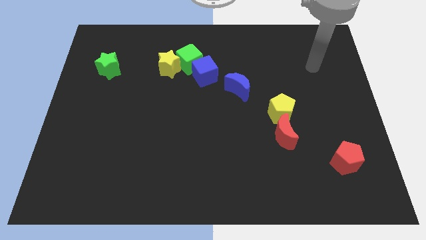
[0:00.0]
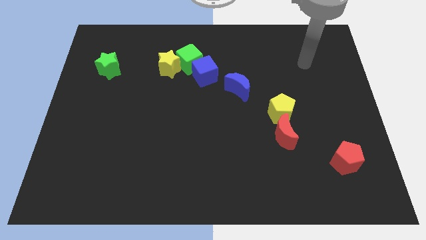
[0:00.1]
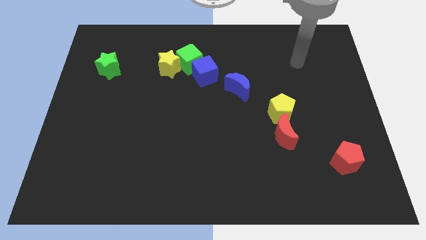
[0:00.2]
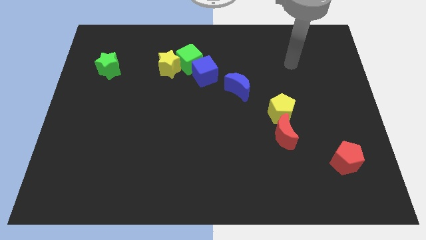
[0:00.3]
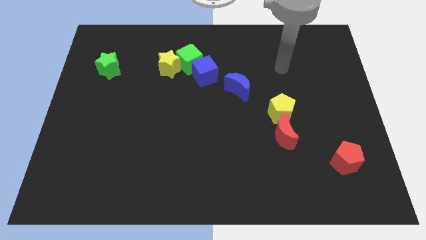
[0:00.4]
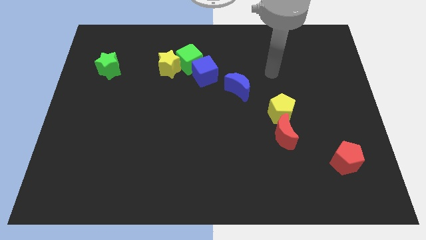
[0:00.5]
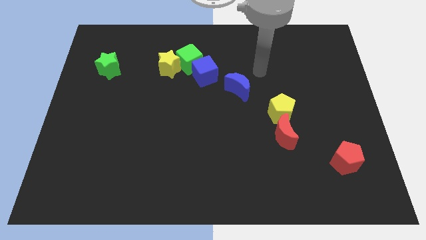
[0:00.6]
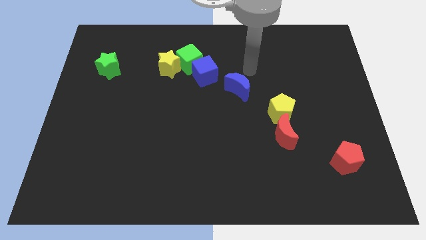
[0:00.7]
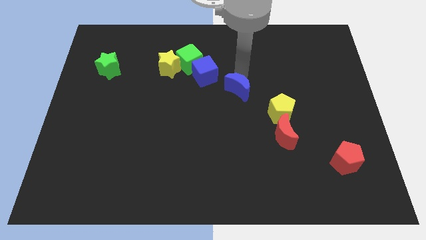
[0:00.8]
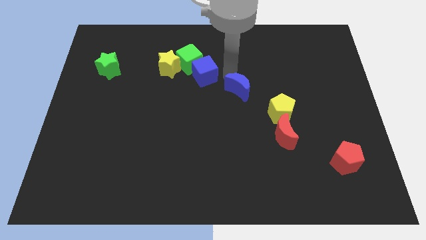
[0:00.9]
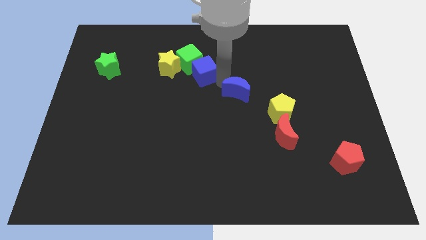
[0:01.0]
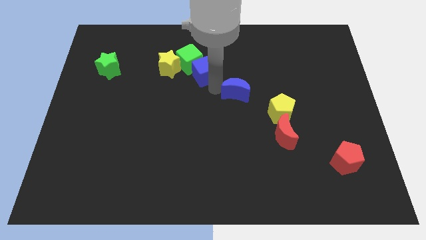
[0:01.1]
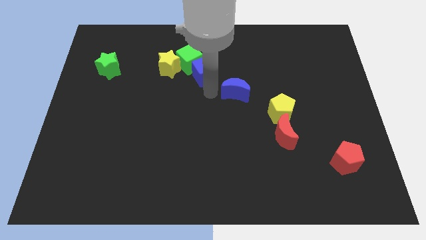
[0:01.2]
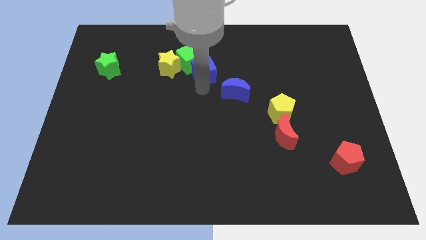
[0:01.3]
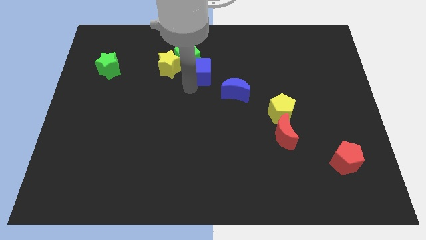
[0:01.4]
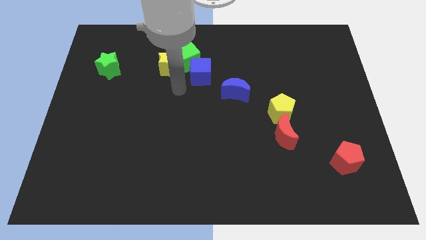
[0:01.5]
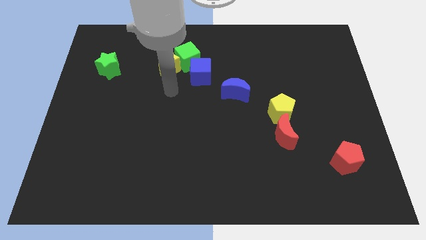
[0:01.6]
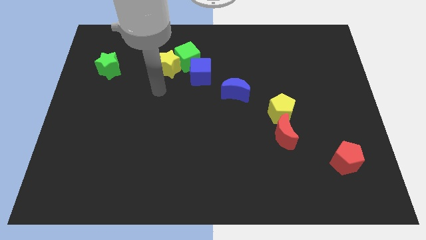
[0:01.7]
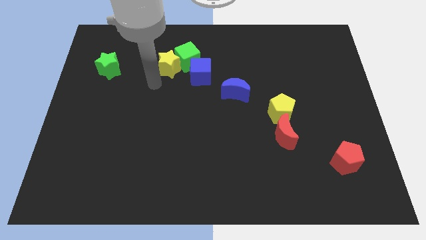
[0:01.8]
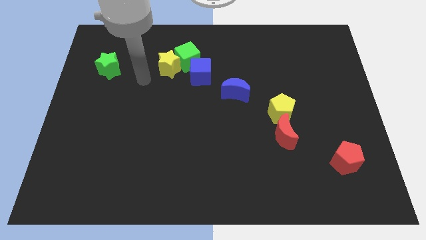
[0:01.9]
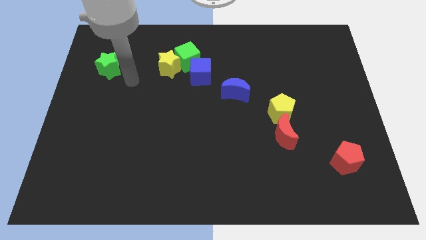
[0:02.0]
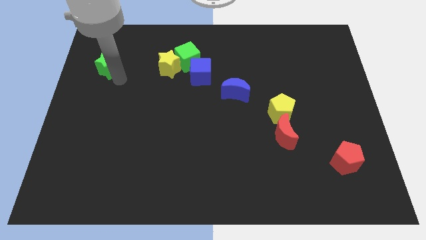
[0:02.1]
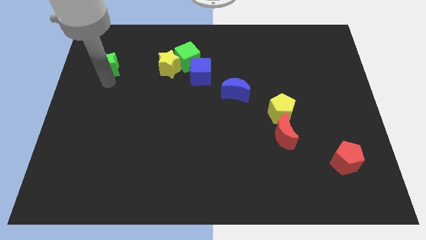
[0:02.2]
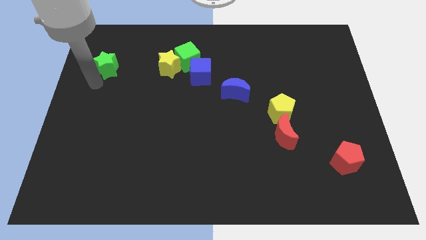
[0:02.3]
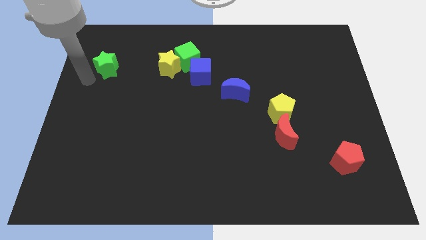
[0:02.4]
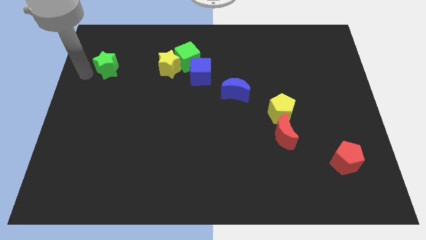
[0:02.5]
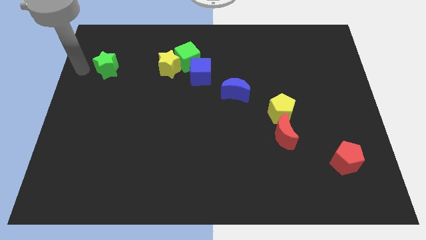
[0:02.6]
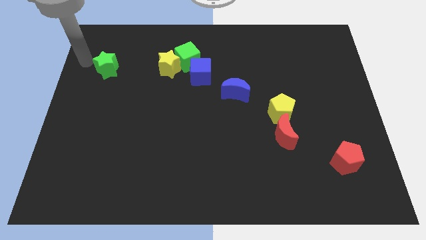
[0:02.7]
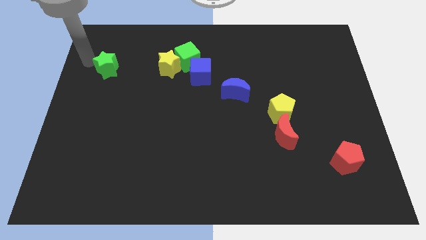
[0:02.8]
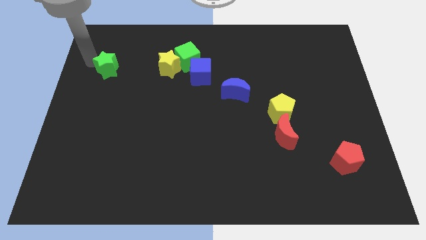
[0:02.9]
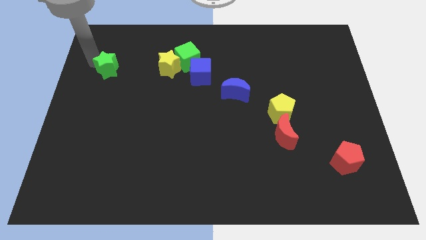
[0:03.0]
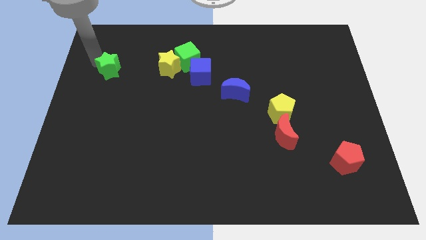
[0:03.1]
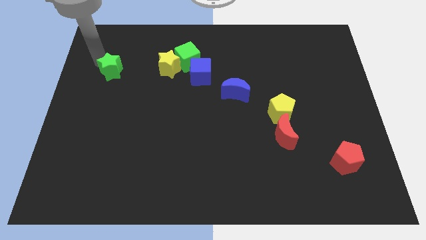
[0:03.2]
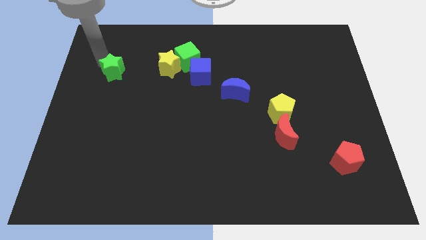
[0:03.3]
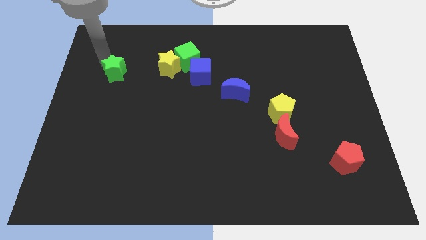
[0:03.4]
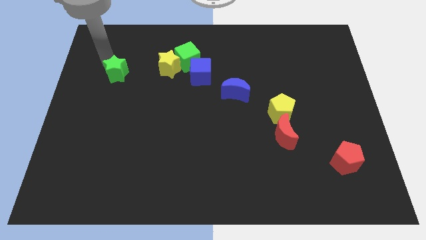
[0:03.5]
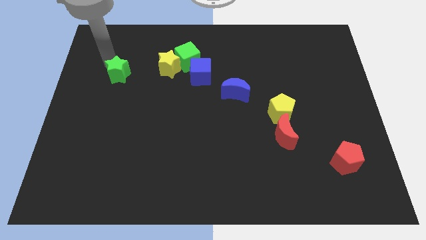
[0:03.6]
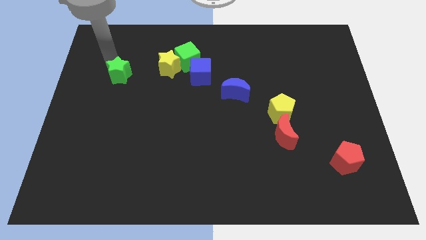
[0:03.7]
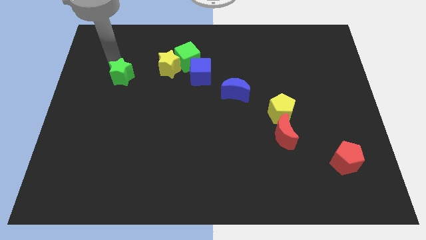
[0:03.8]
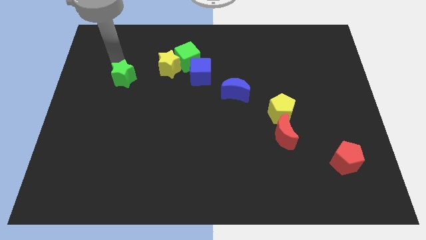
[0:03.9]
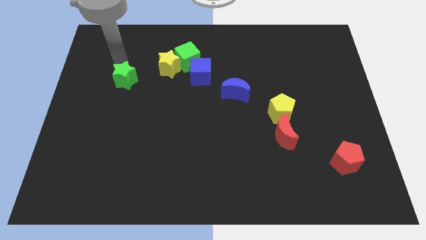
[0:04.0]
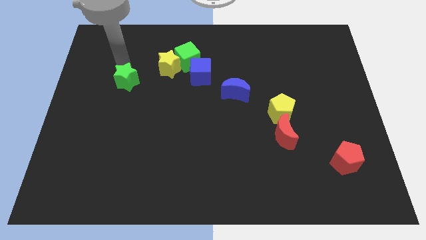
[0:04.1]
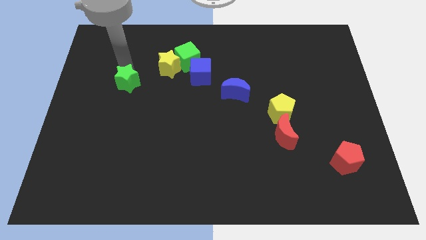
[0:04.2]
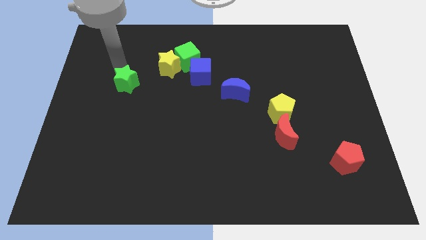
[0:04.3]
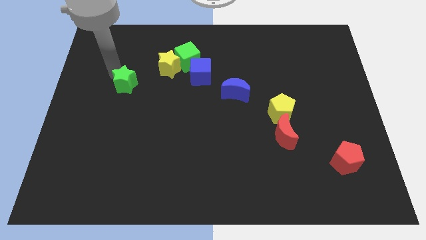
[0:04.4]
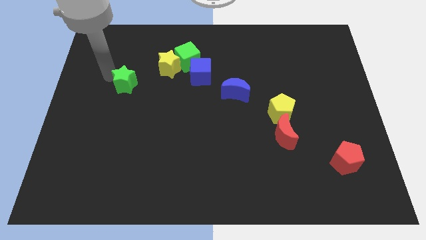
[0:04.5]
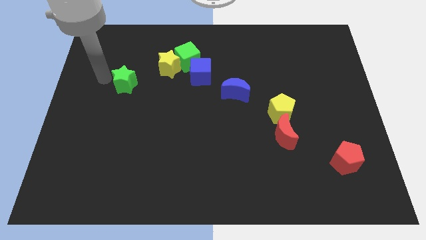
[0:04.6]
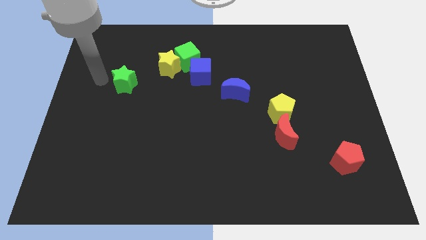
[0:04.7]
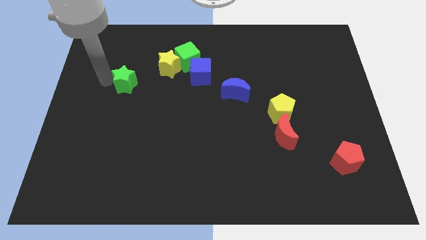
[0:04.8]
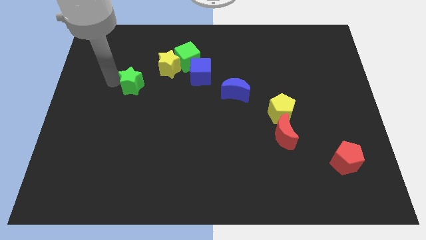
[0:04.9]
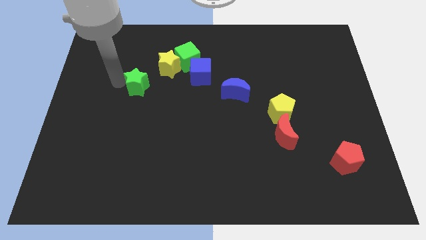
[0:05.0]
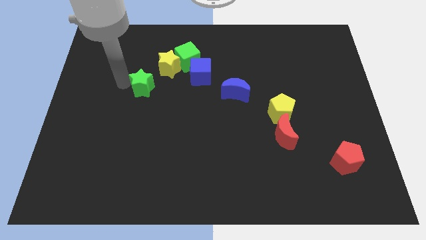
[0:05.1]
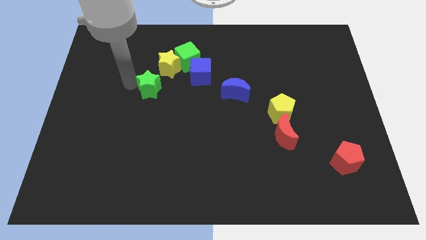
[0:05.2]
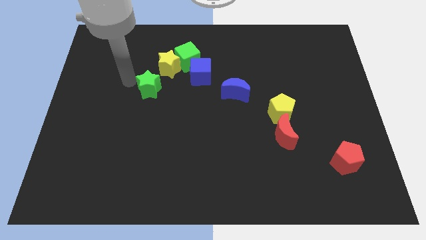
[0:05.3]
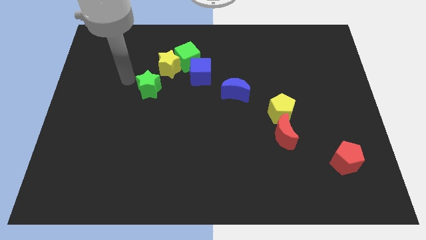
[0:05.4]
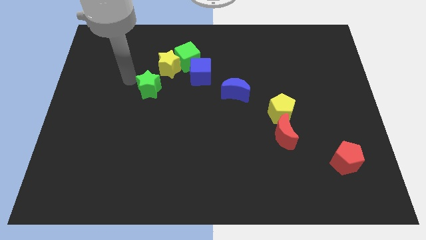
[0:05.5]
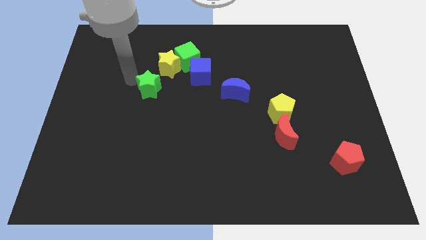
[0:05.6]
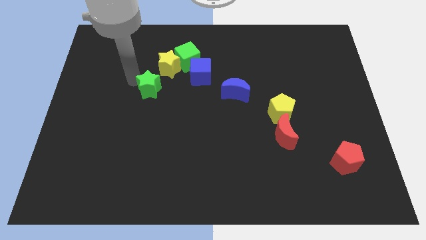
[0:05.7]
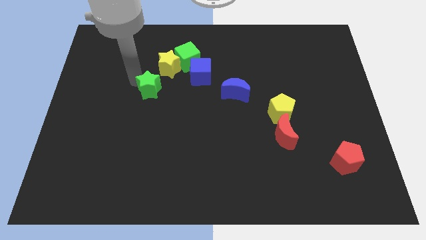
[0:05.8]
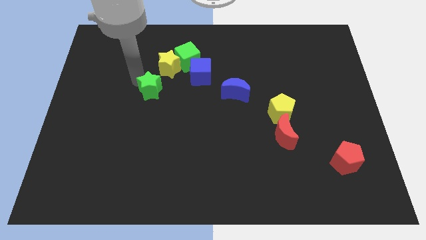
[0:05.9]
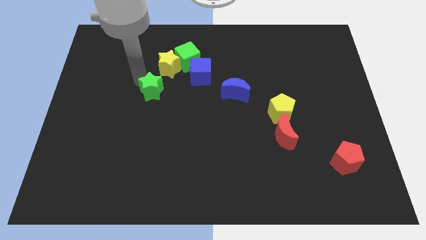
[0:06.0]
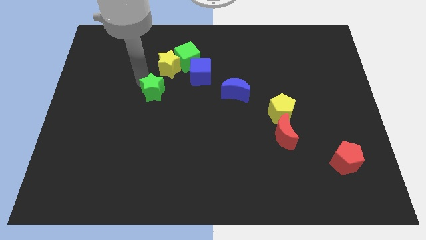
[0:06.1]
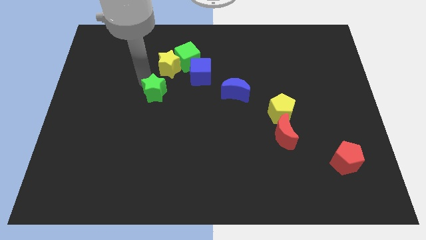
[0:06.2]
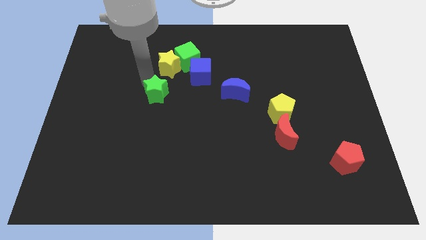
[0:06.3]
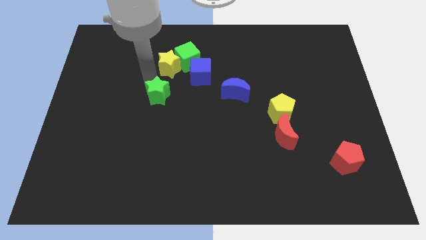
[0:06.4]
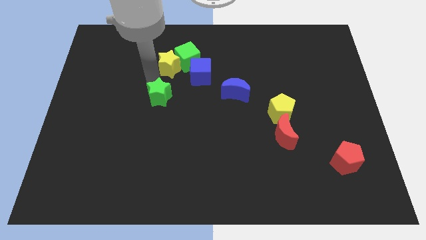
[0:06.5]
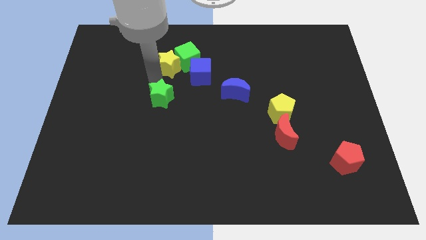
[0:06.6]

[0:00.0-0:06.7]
slide the green star to the middle of the board

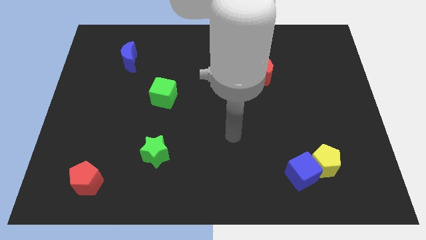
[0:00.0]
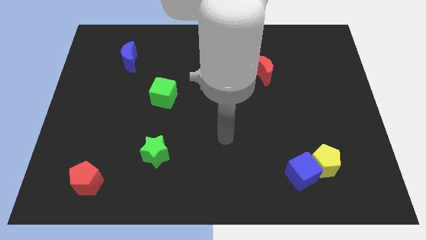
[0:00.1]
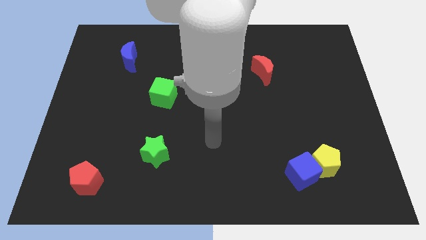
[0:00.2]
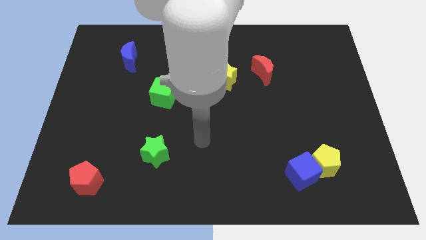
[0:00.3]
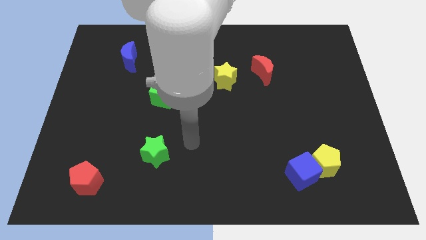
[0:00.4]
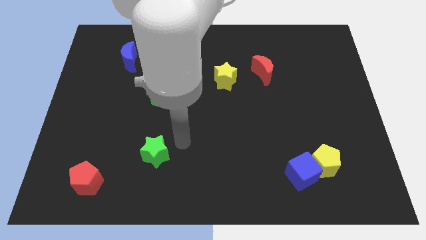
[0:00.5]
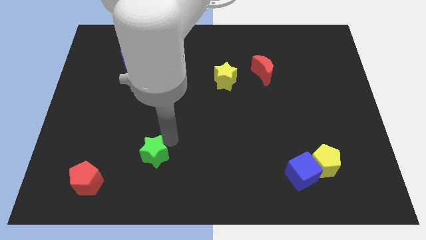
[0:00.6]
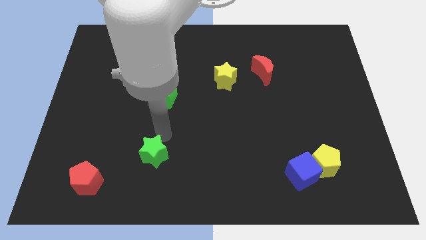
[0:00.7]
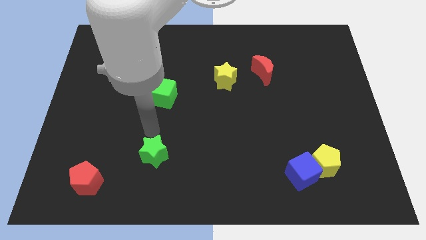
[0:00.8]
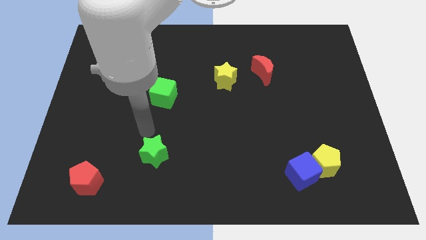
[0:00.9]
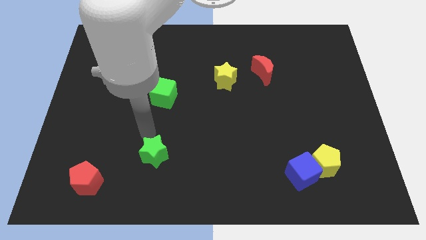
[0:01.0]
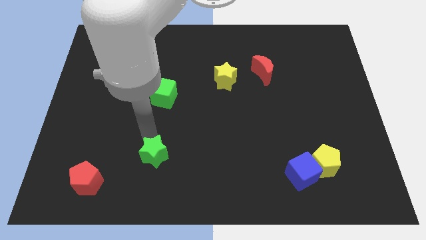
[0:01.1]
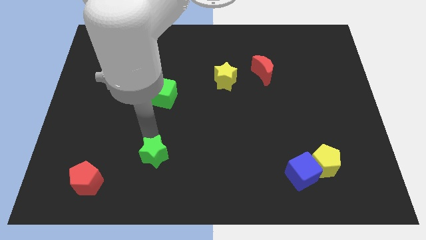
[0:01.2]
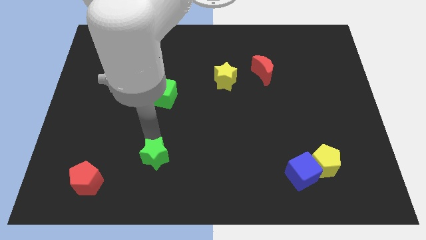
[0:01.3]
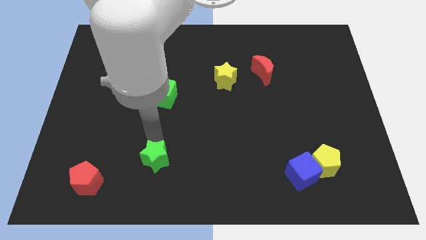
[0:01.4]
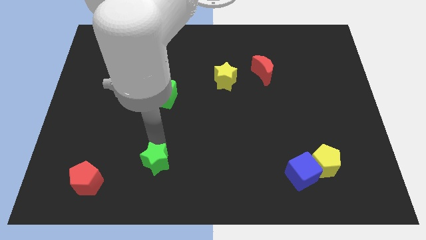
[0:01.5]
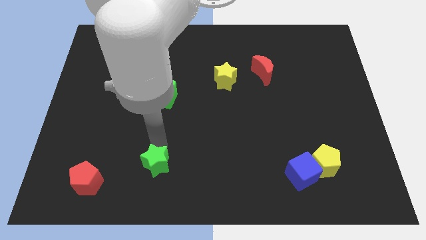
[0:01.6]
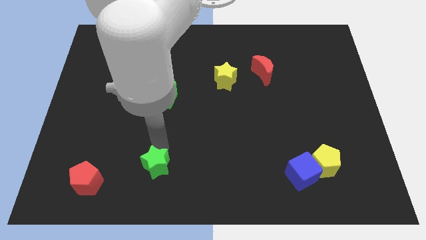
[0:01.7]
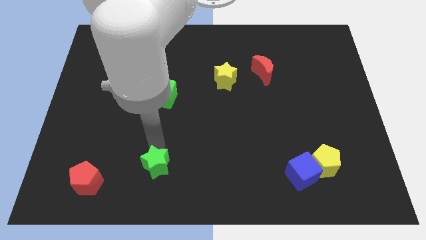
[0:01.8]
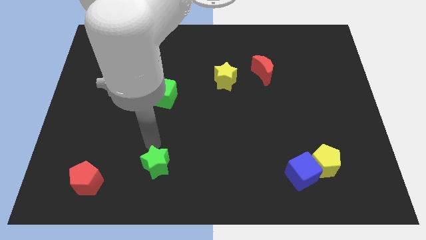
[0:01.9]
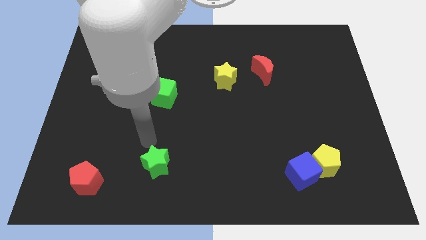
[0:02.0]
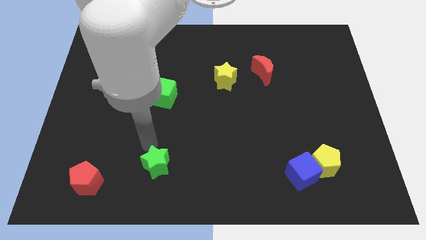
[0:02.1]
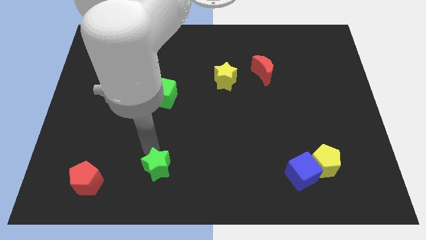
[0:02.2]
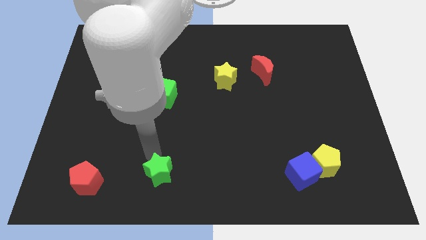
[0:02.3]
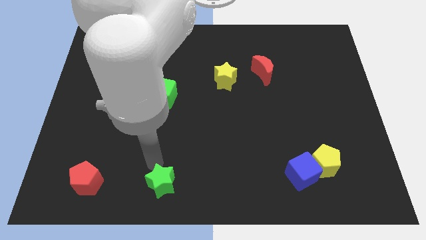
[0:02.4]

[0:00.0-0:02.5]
move the green star to the bottom side
